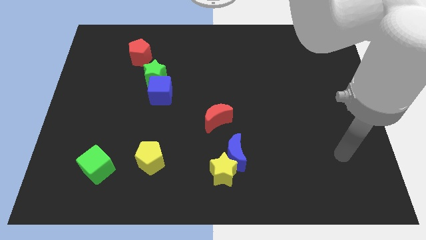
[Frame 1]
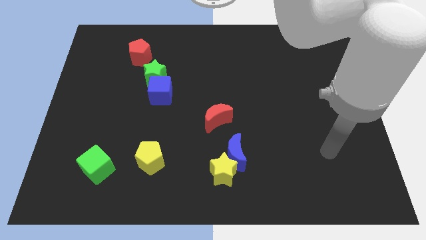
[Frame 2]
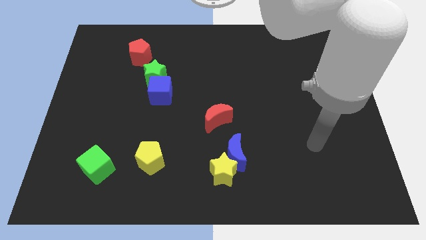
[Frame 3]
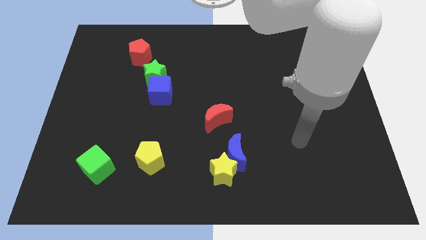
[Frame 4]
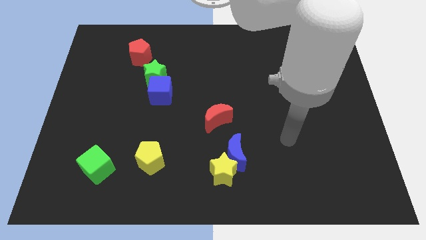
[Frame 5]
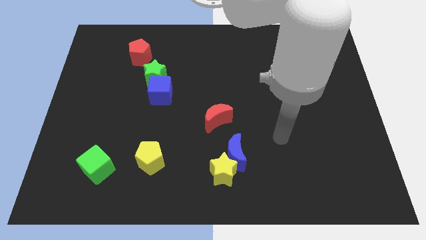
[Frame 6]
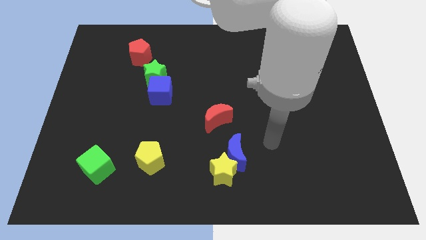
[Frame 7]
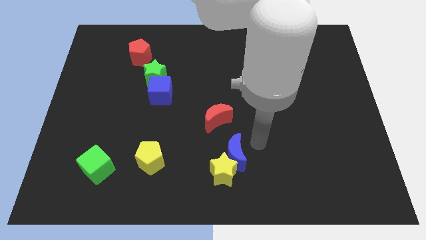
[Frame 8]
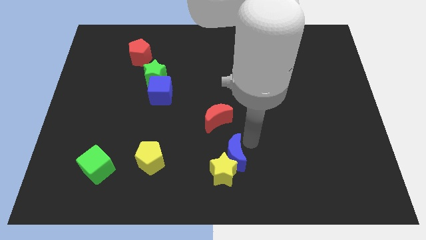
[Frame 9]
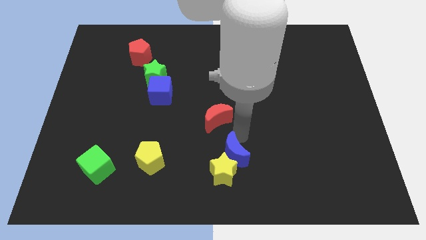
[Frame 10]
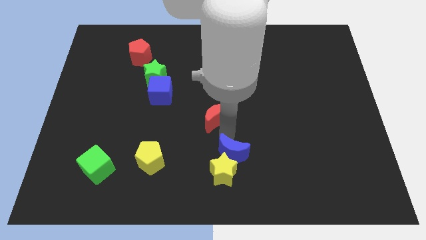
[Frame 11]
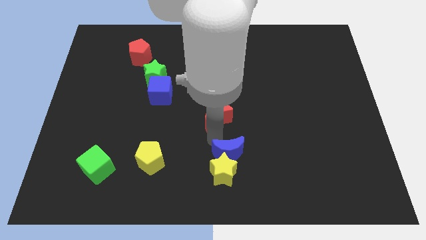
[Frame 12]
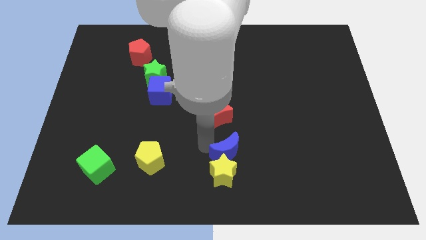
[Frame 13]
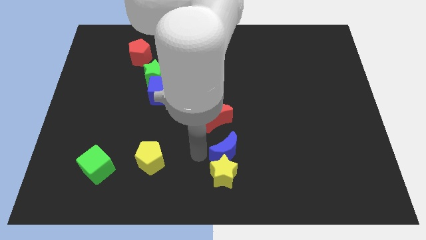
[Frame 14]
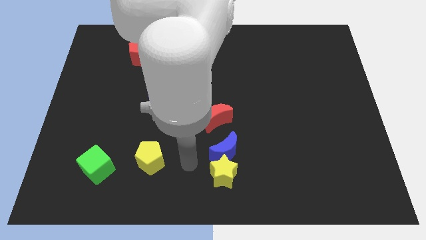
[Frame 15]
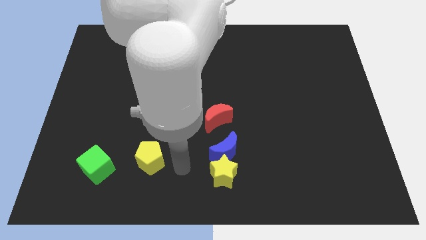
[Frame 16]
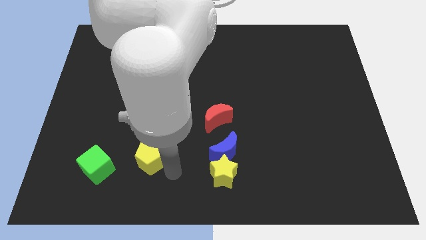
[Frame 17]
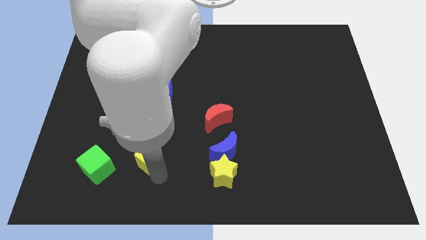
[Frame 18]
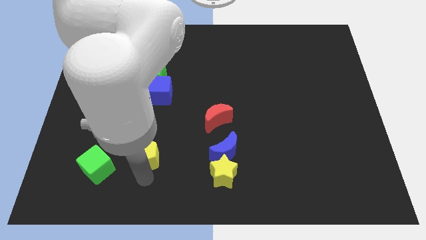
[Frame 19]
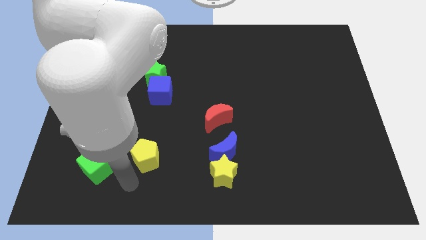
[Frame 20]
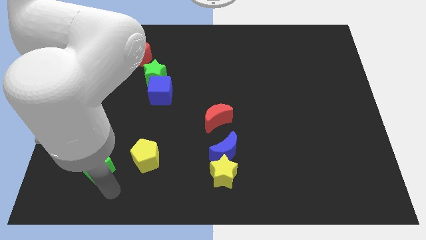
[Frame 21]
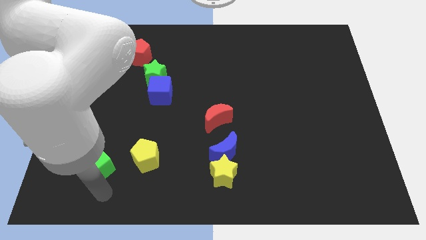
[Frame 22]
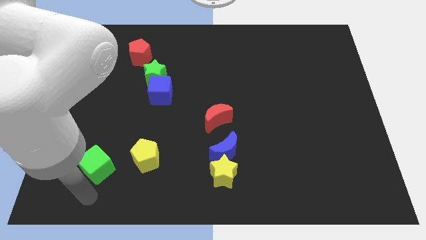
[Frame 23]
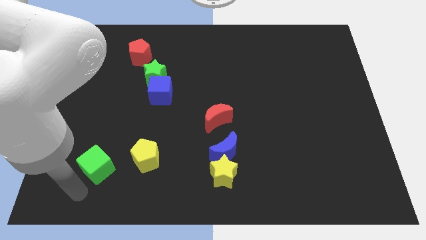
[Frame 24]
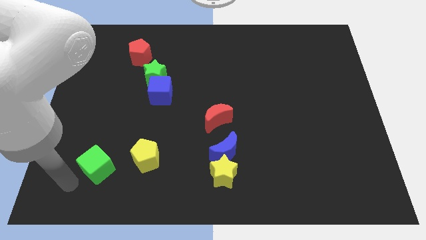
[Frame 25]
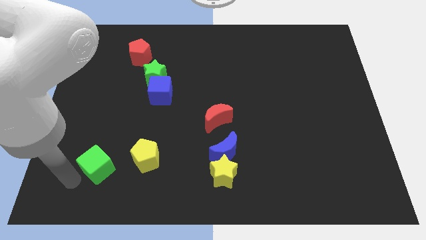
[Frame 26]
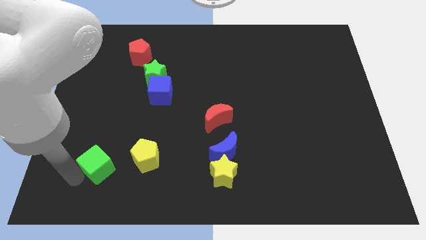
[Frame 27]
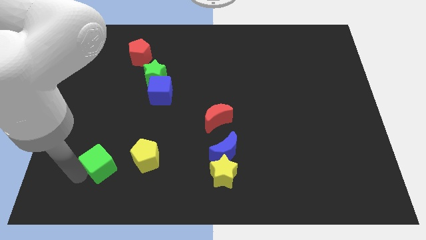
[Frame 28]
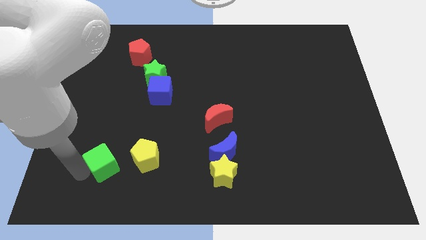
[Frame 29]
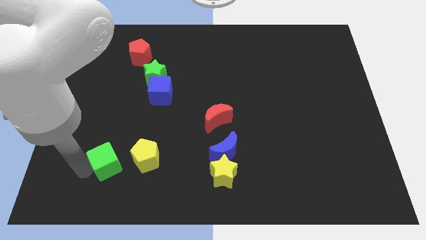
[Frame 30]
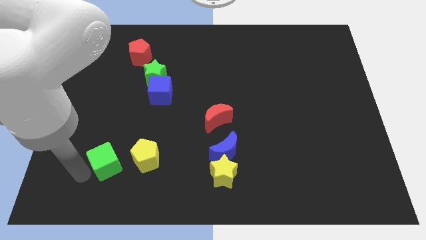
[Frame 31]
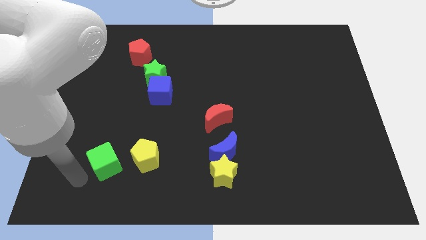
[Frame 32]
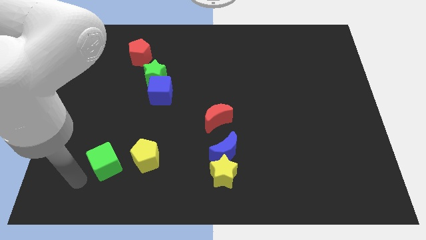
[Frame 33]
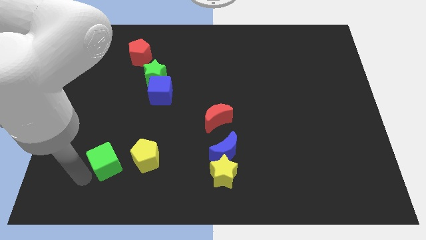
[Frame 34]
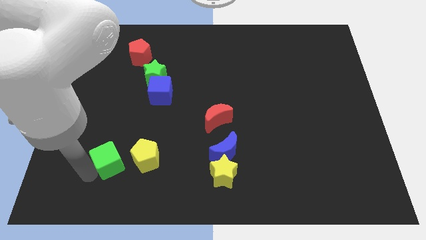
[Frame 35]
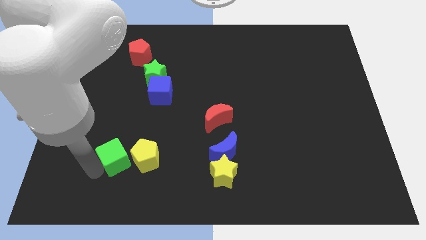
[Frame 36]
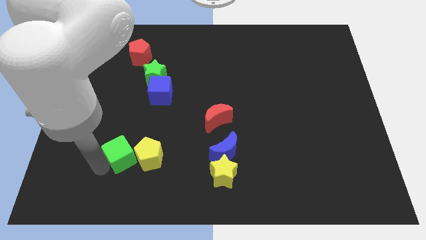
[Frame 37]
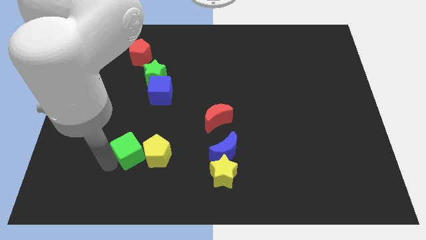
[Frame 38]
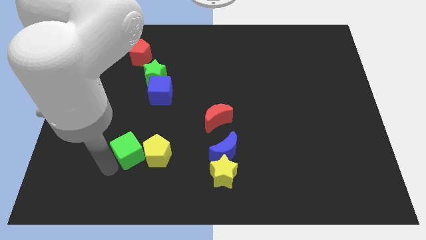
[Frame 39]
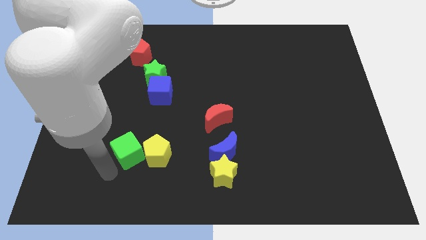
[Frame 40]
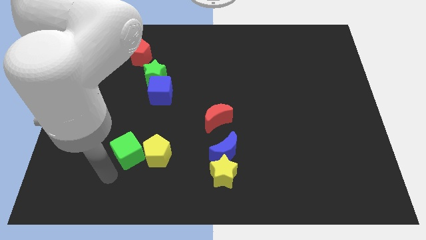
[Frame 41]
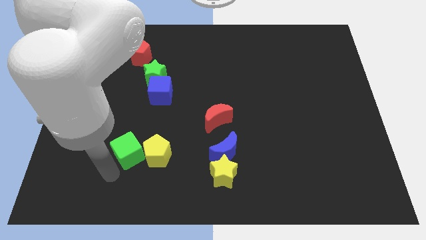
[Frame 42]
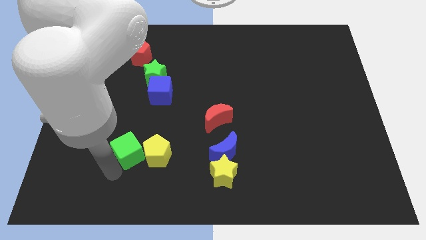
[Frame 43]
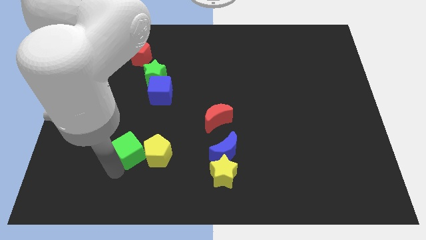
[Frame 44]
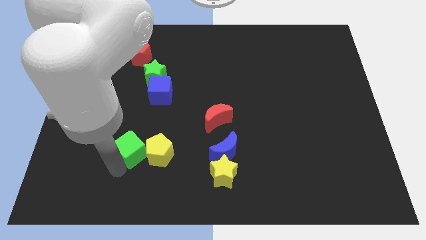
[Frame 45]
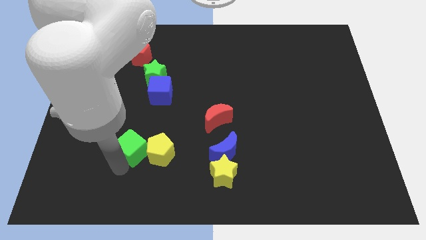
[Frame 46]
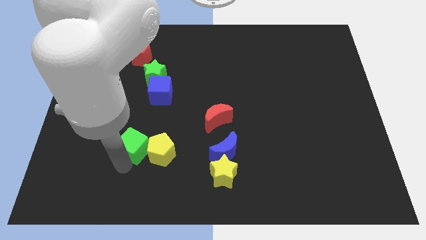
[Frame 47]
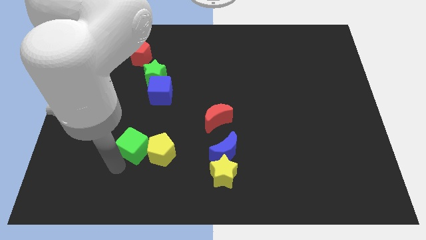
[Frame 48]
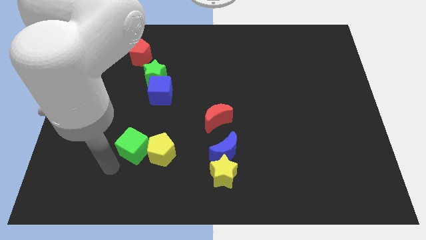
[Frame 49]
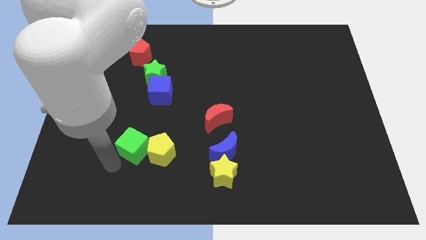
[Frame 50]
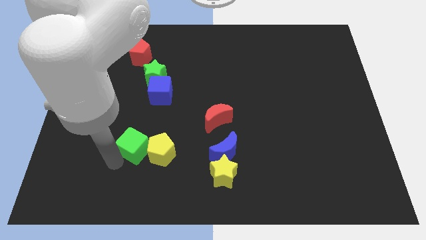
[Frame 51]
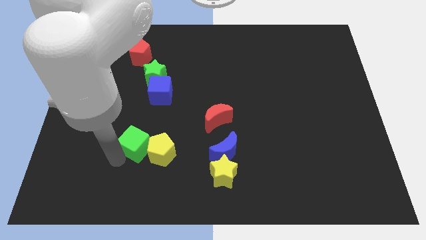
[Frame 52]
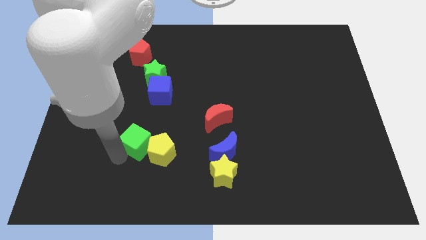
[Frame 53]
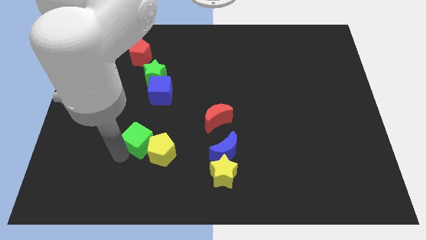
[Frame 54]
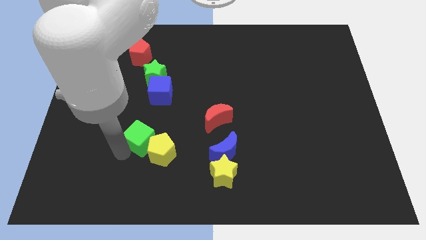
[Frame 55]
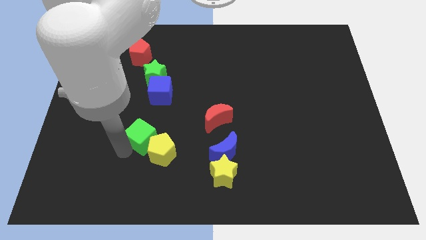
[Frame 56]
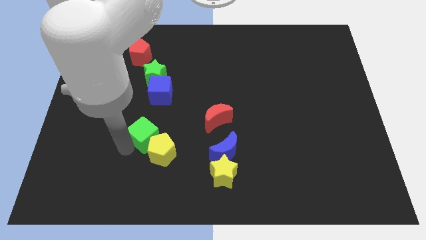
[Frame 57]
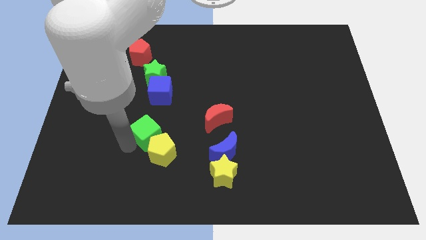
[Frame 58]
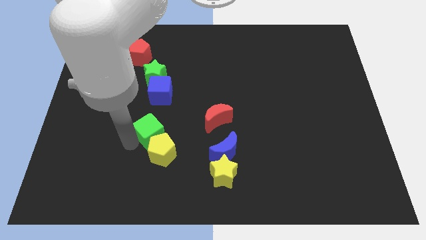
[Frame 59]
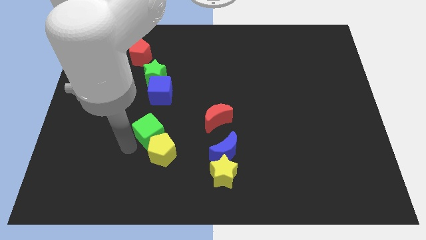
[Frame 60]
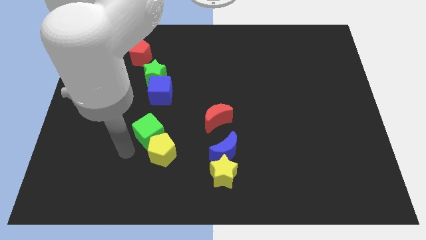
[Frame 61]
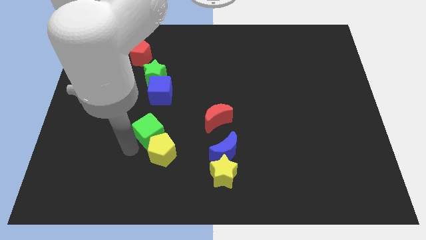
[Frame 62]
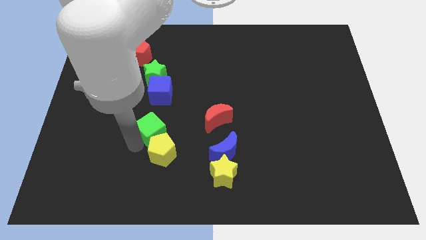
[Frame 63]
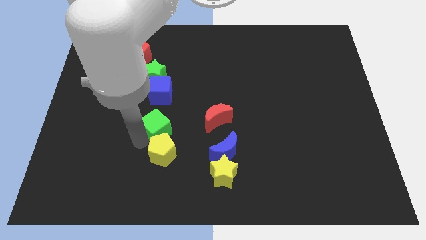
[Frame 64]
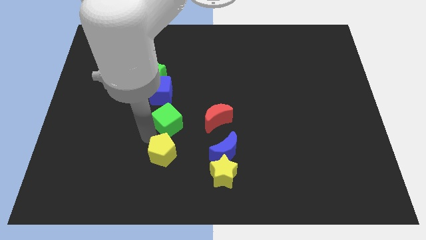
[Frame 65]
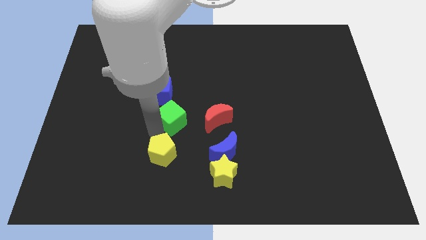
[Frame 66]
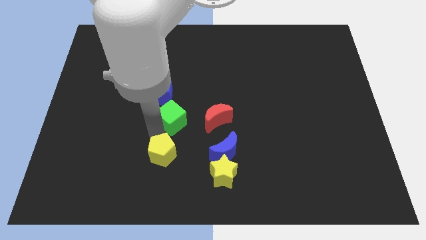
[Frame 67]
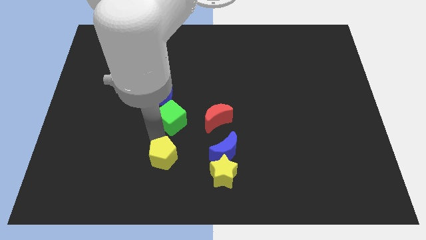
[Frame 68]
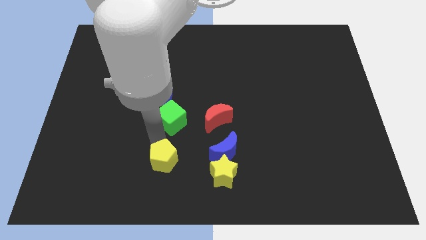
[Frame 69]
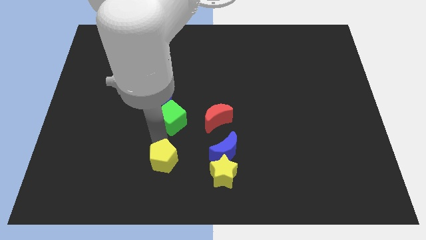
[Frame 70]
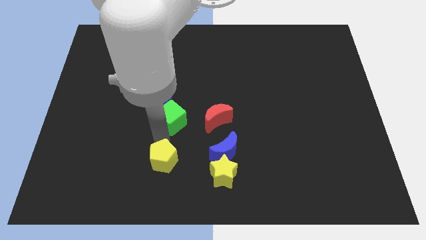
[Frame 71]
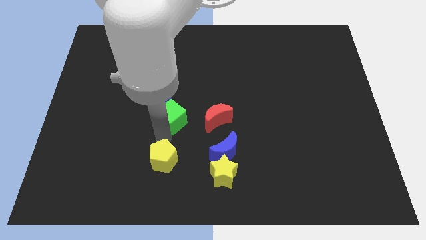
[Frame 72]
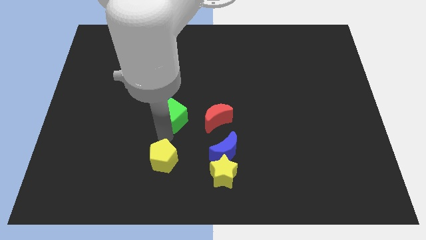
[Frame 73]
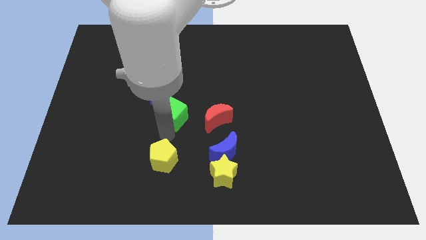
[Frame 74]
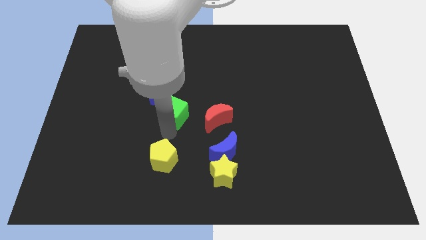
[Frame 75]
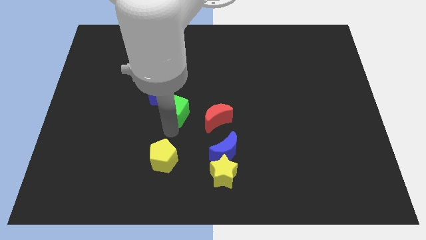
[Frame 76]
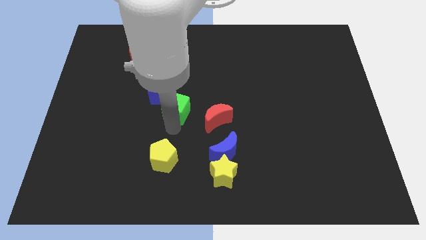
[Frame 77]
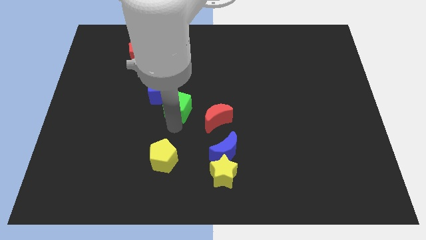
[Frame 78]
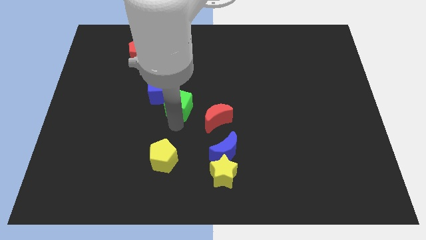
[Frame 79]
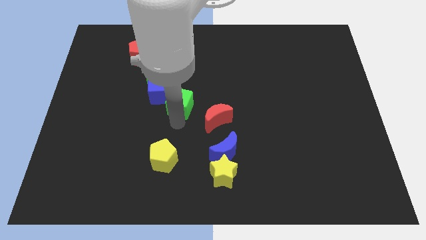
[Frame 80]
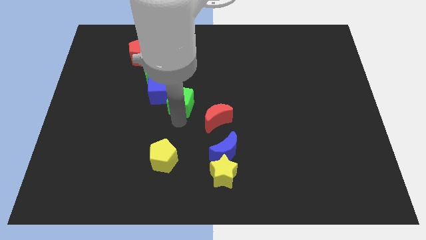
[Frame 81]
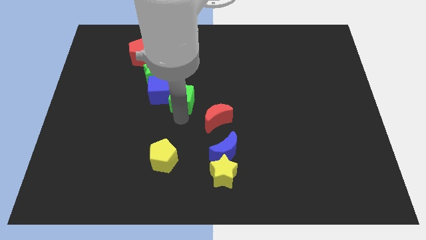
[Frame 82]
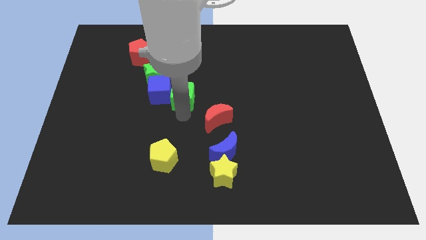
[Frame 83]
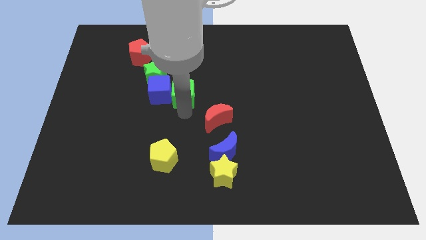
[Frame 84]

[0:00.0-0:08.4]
push the green cube to the top right side of the blue cube

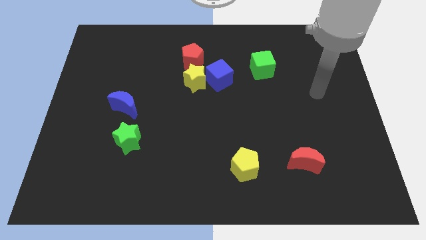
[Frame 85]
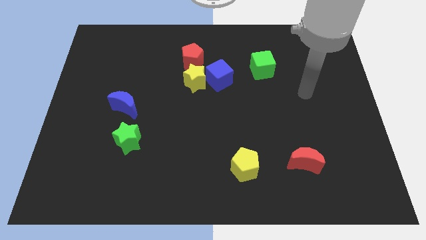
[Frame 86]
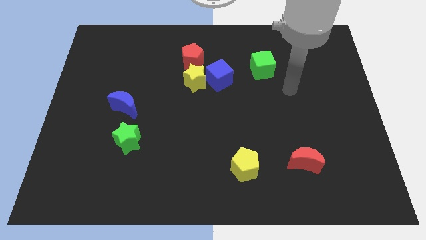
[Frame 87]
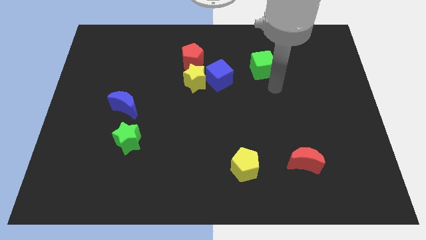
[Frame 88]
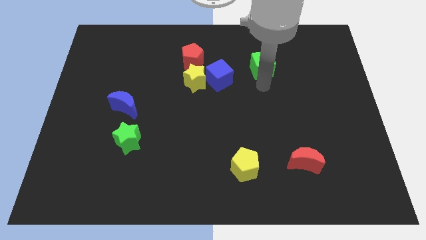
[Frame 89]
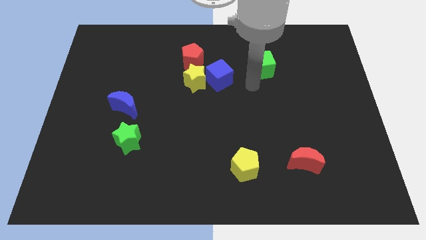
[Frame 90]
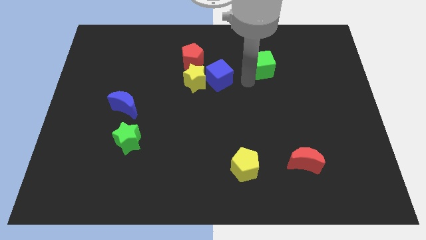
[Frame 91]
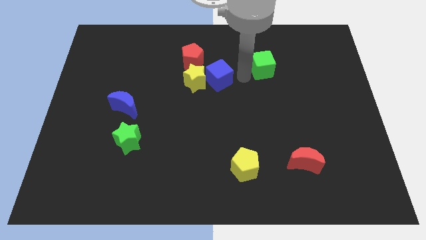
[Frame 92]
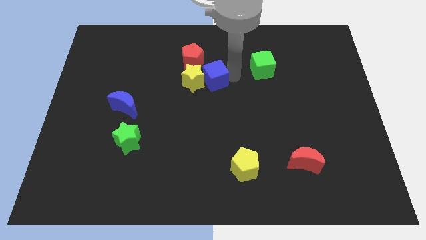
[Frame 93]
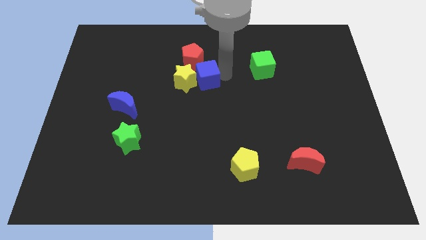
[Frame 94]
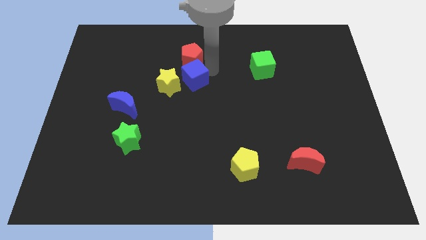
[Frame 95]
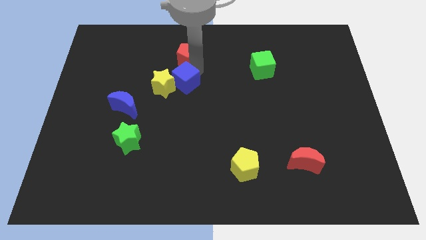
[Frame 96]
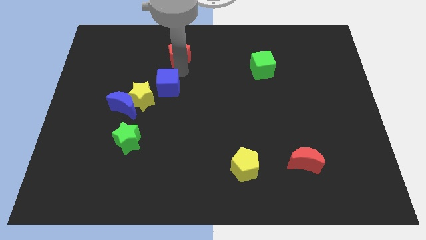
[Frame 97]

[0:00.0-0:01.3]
slide the yellow star to the bottom right of the blue moon
